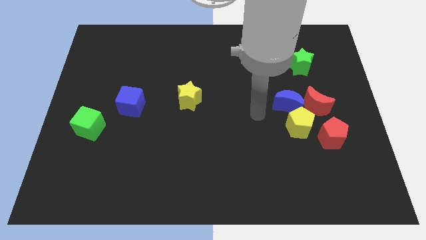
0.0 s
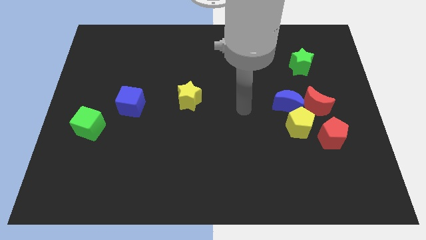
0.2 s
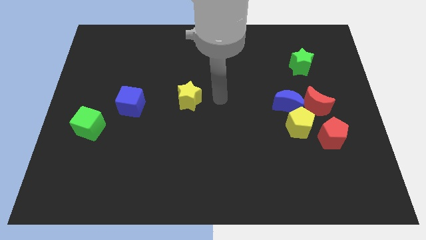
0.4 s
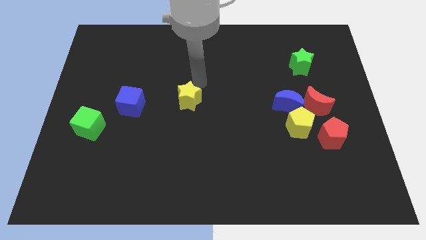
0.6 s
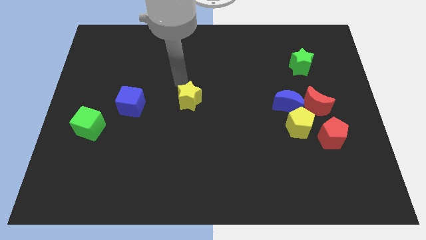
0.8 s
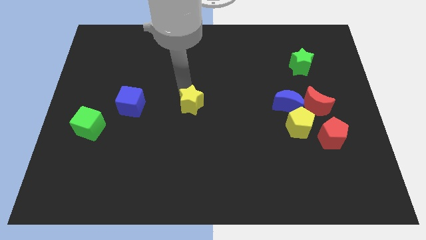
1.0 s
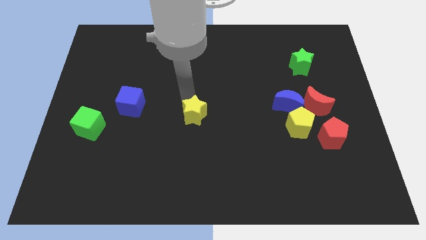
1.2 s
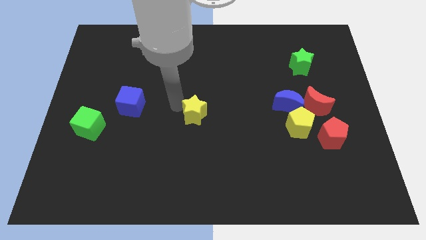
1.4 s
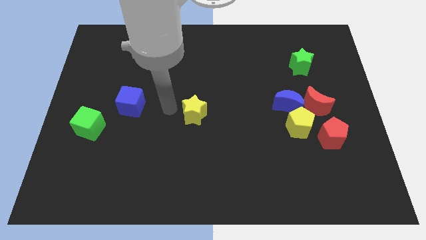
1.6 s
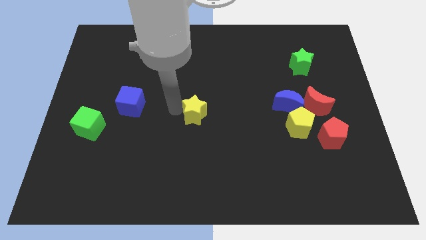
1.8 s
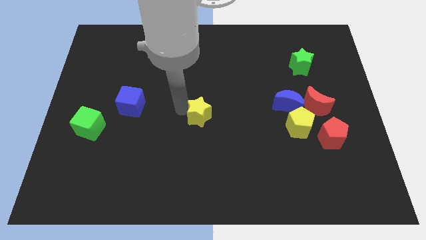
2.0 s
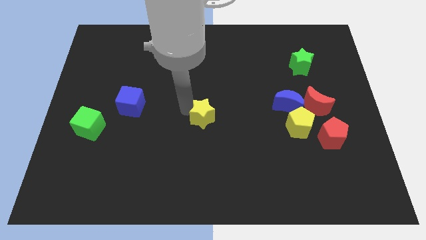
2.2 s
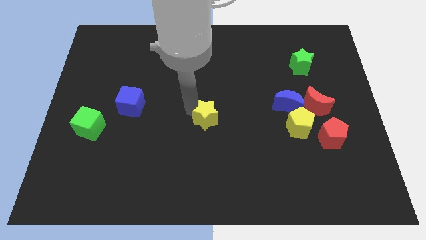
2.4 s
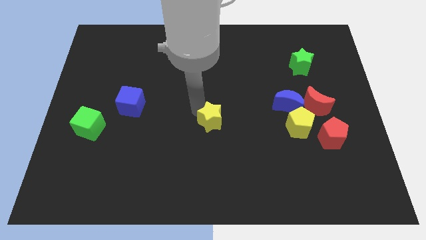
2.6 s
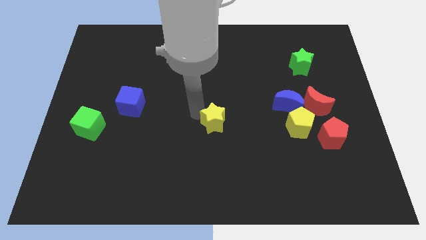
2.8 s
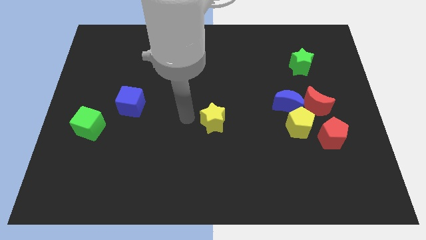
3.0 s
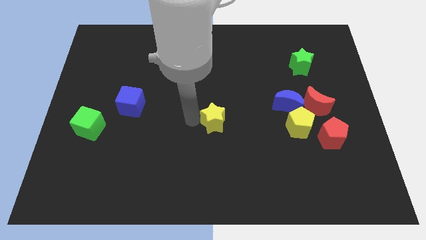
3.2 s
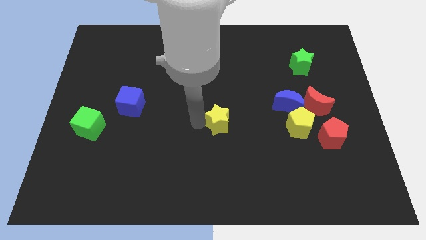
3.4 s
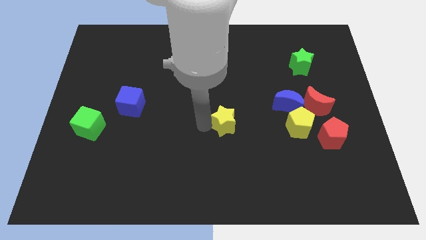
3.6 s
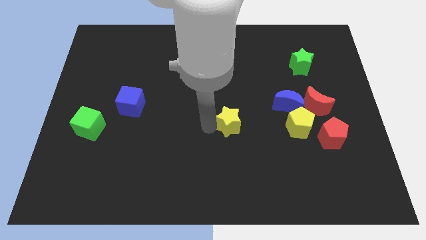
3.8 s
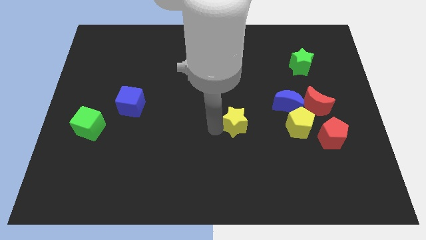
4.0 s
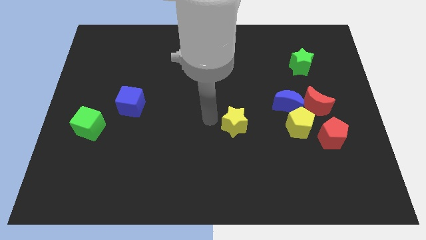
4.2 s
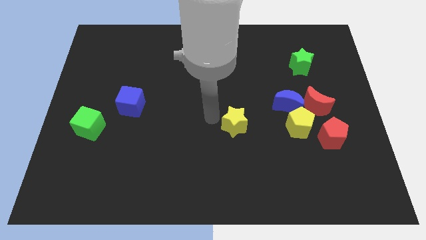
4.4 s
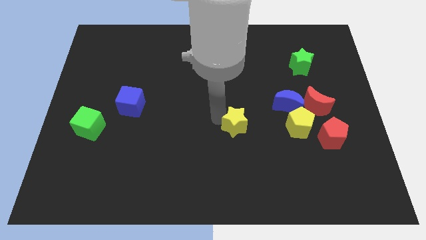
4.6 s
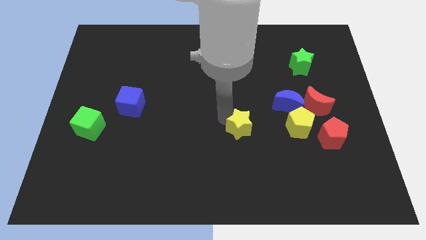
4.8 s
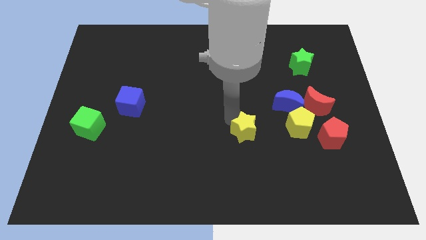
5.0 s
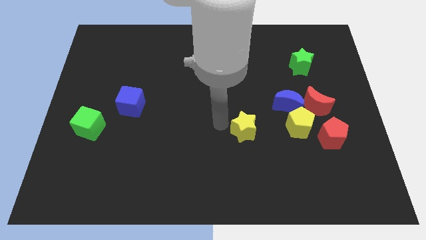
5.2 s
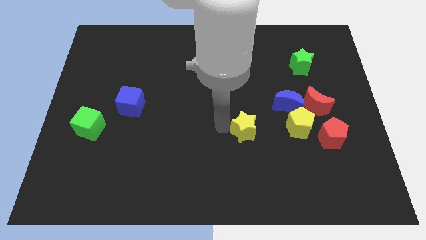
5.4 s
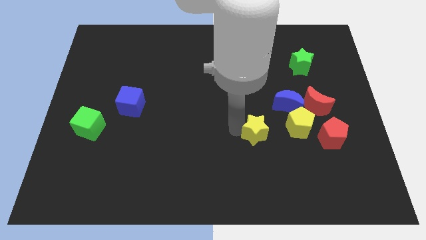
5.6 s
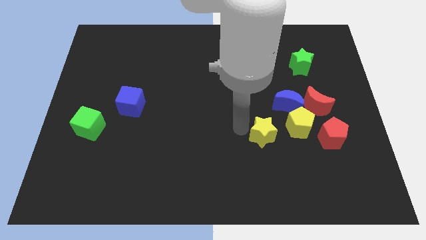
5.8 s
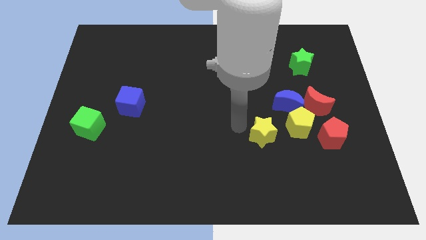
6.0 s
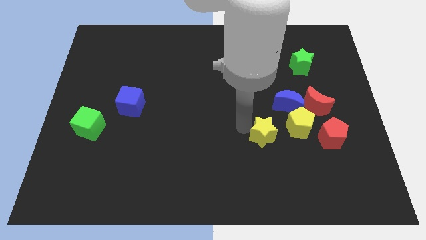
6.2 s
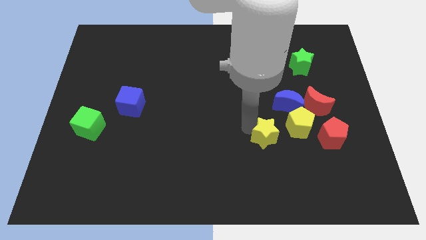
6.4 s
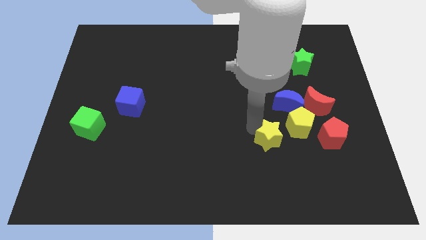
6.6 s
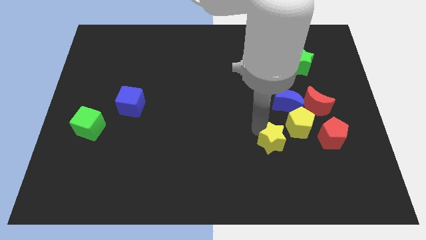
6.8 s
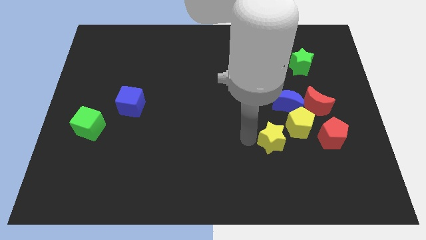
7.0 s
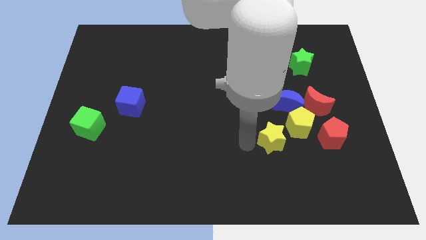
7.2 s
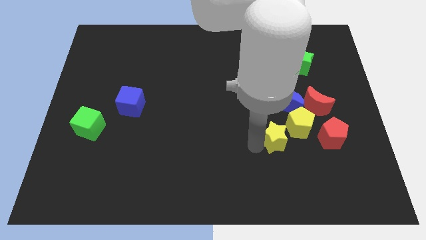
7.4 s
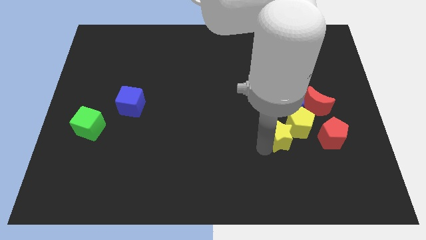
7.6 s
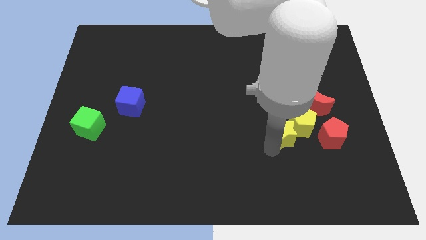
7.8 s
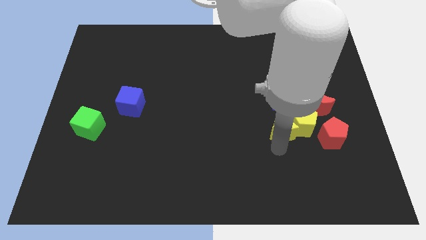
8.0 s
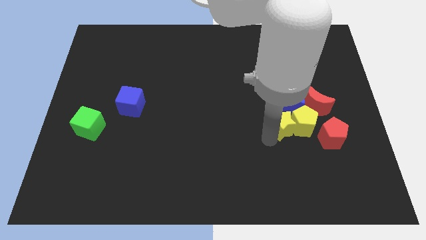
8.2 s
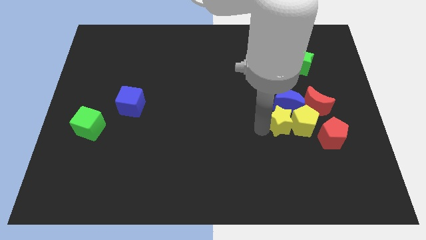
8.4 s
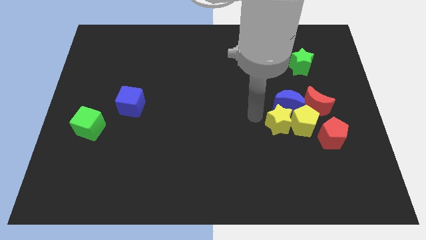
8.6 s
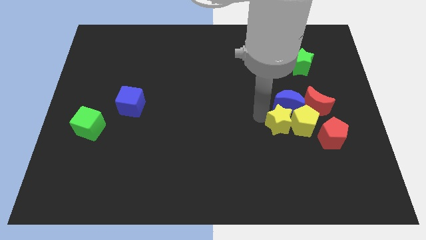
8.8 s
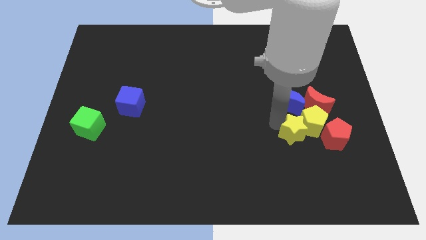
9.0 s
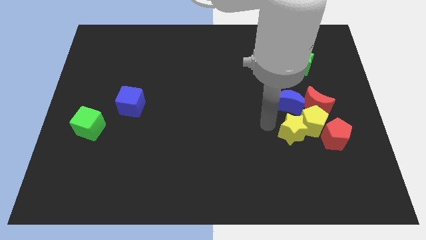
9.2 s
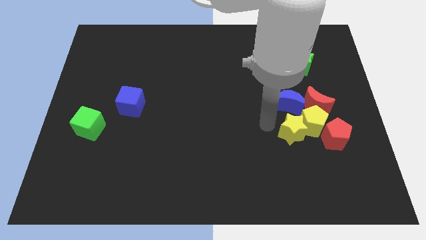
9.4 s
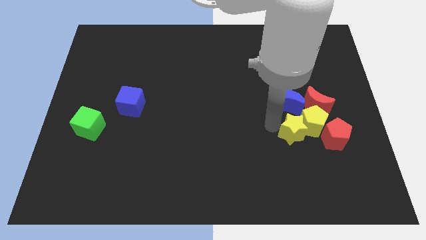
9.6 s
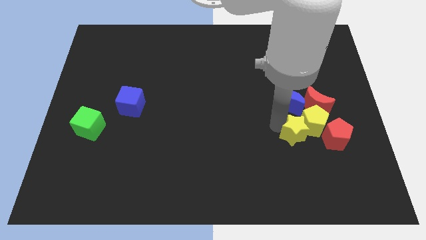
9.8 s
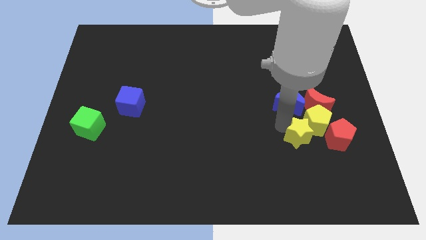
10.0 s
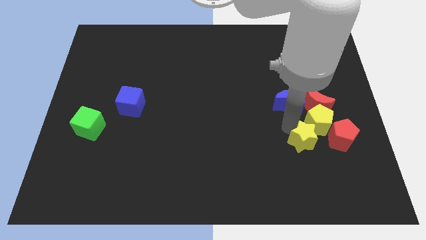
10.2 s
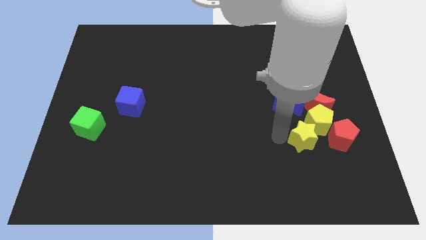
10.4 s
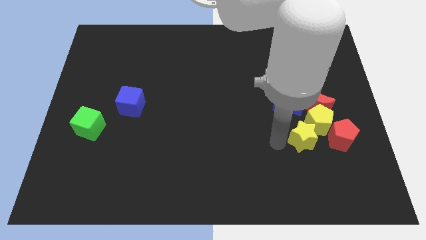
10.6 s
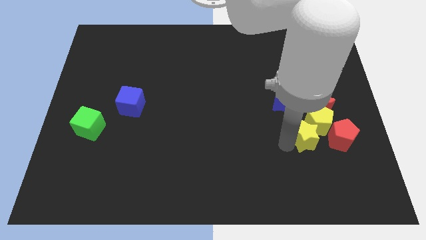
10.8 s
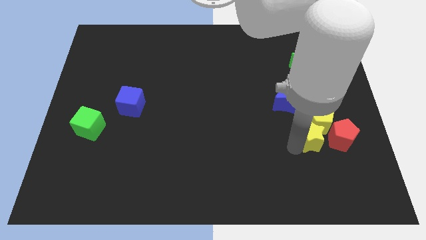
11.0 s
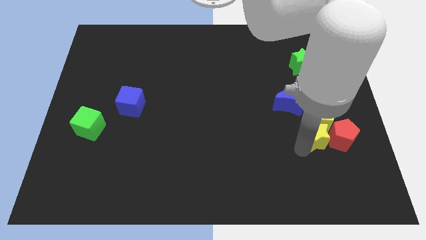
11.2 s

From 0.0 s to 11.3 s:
slide the yellow star towards the red pentagon
